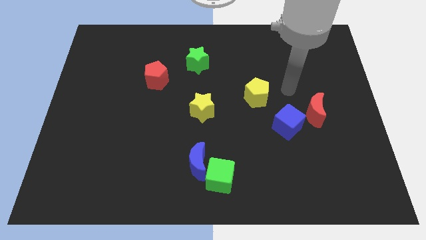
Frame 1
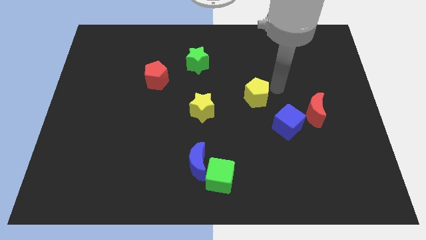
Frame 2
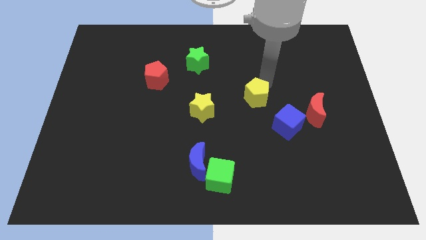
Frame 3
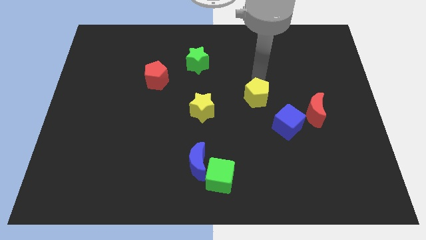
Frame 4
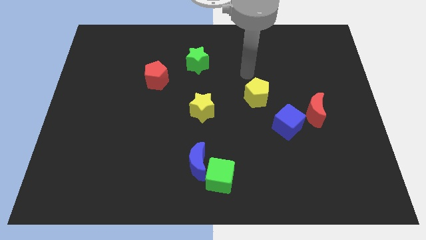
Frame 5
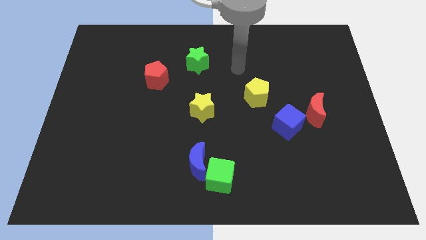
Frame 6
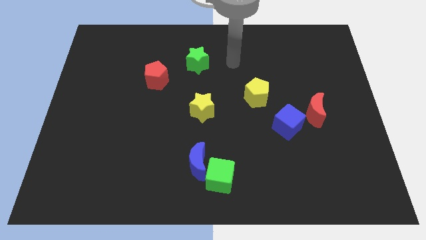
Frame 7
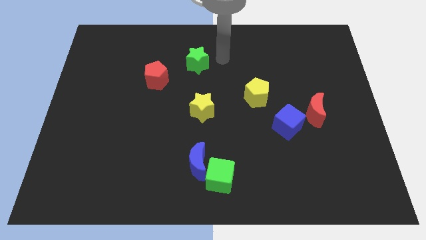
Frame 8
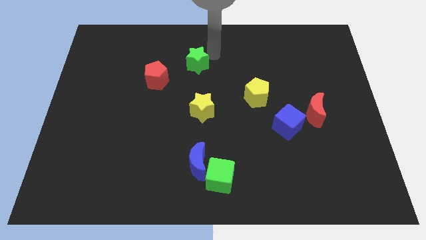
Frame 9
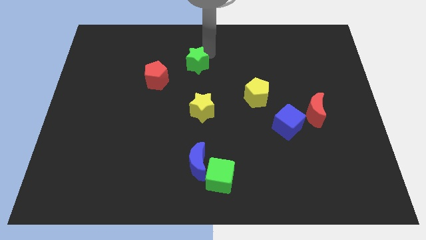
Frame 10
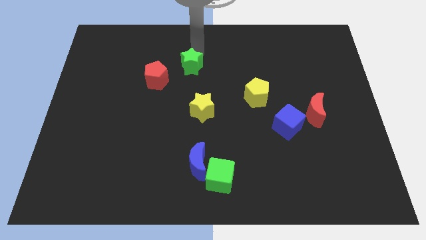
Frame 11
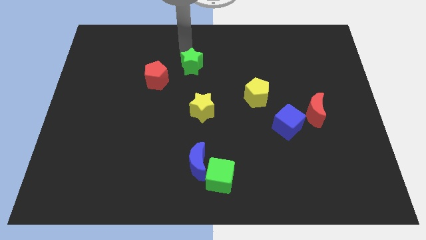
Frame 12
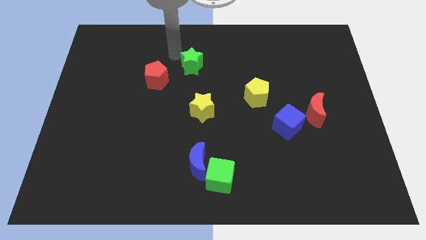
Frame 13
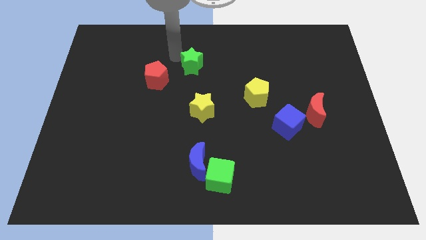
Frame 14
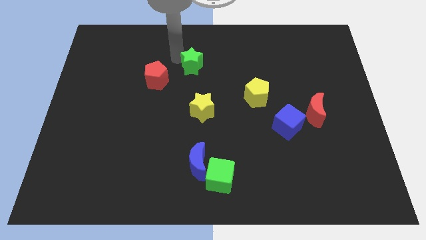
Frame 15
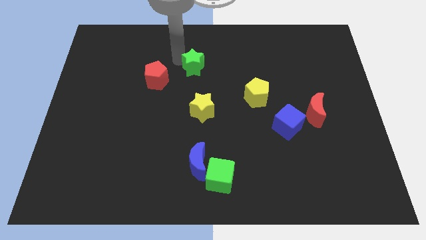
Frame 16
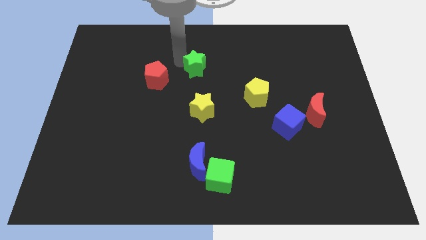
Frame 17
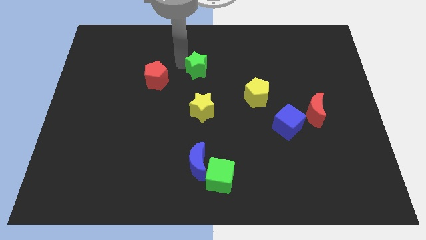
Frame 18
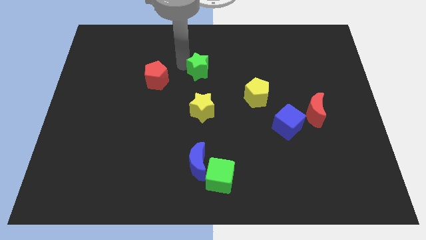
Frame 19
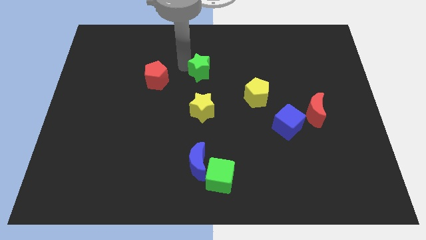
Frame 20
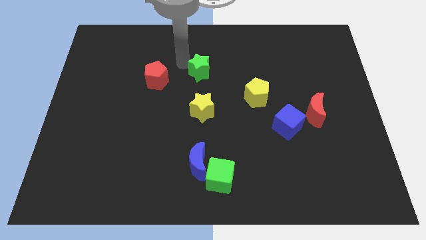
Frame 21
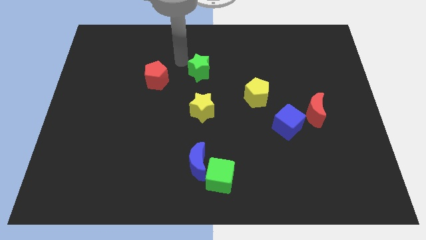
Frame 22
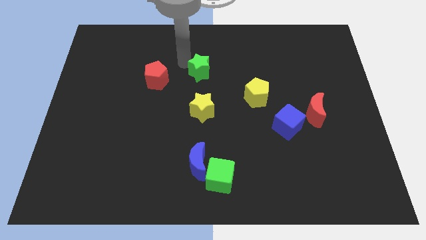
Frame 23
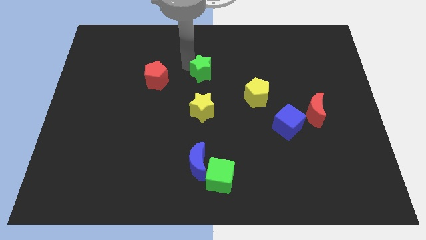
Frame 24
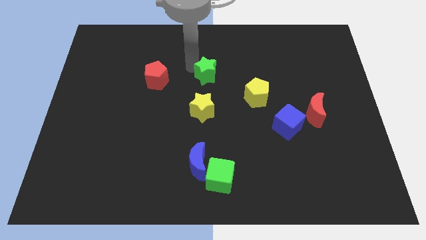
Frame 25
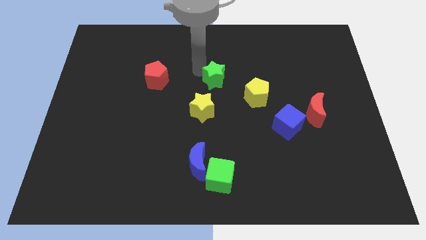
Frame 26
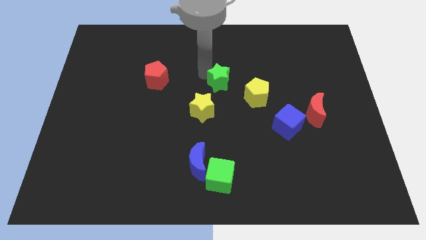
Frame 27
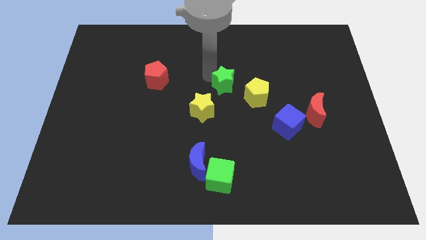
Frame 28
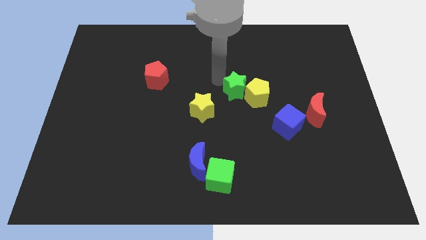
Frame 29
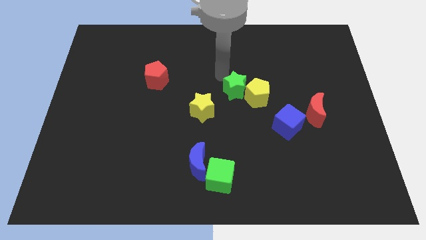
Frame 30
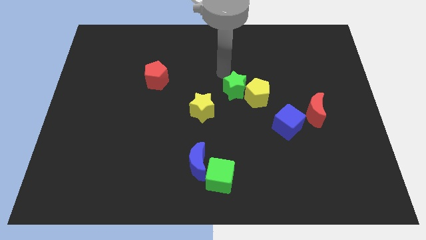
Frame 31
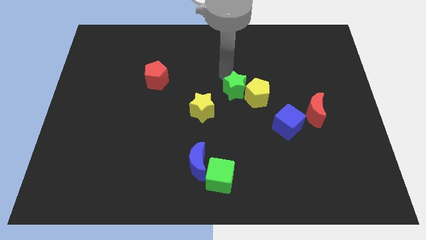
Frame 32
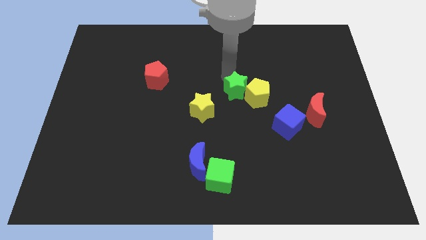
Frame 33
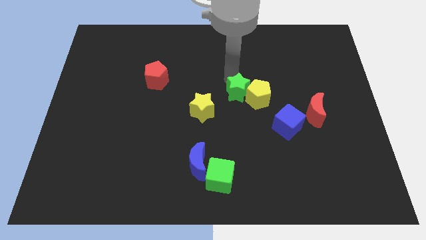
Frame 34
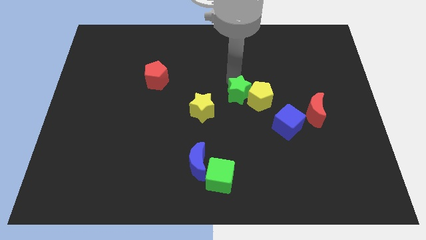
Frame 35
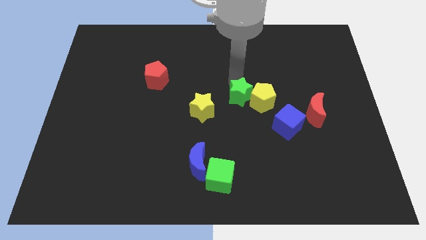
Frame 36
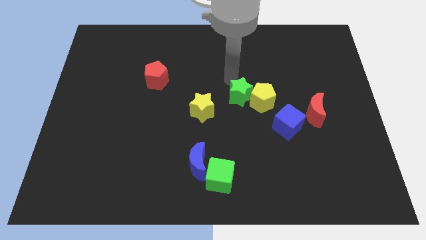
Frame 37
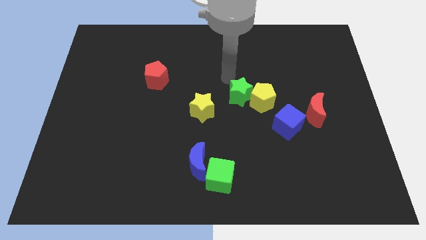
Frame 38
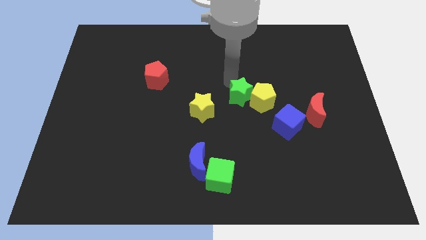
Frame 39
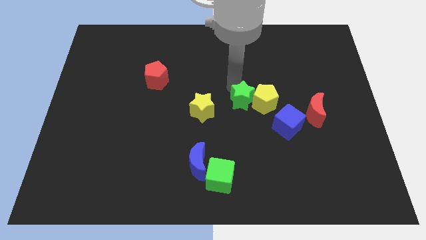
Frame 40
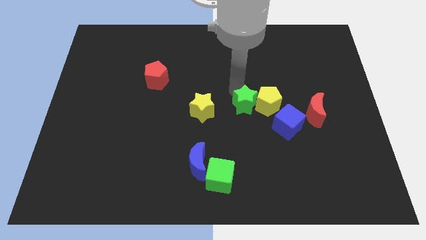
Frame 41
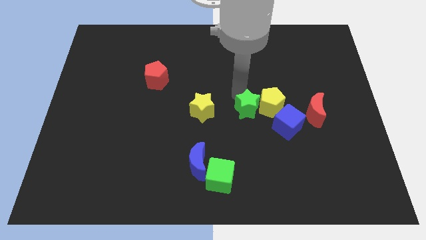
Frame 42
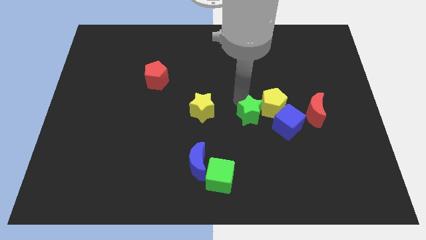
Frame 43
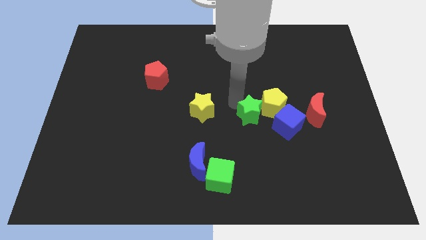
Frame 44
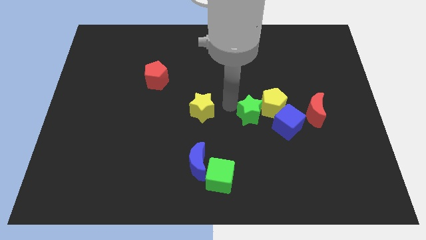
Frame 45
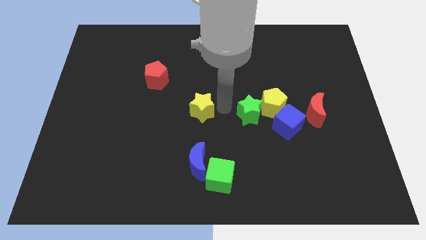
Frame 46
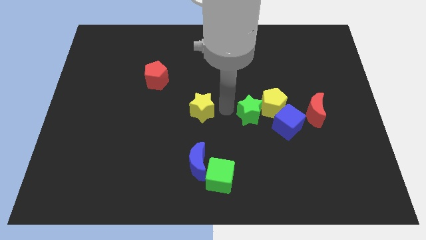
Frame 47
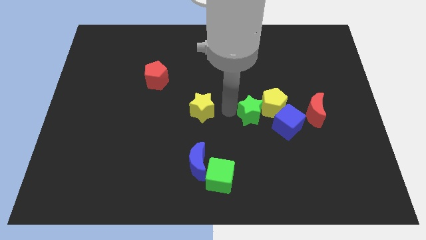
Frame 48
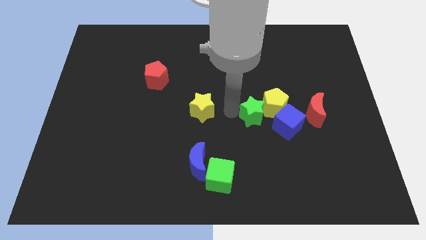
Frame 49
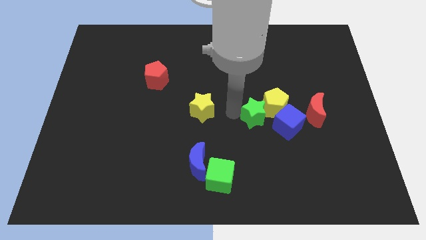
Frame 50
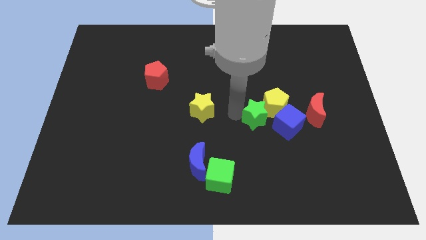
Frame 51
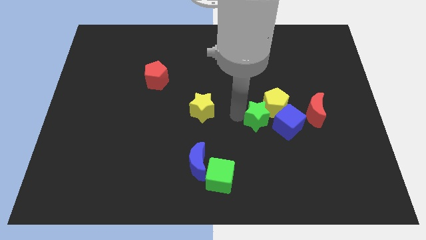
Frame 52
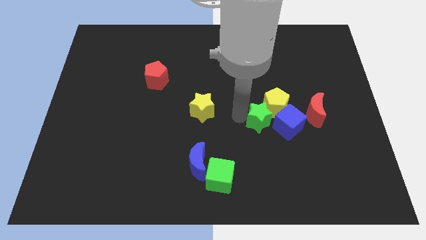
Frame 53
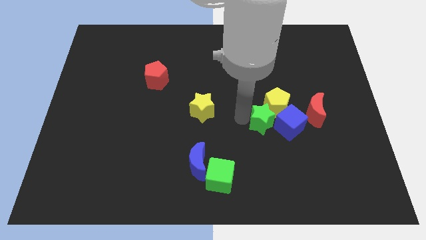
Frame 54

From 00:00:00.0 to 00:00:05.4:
slide the green star close to the blue cube

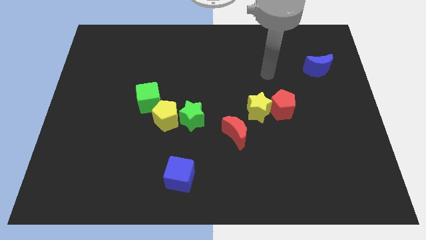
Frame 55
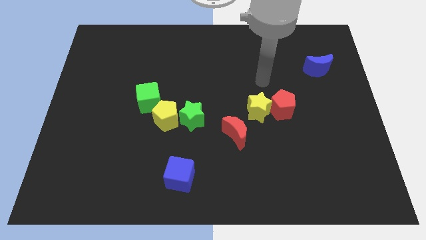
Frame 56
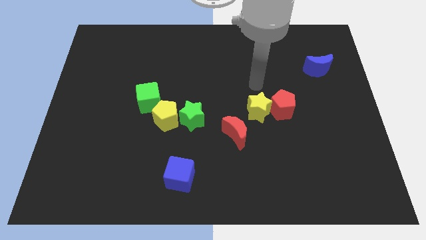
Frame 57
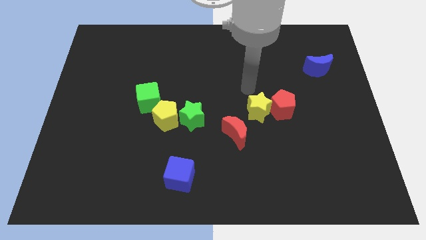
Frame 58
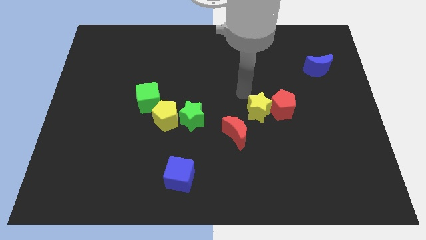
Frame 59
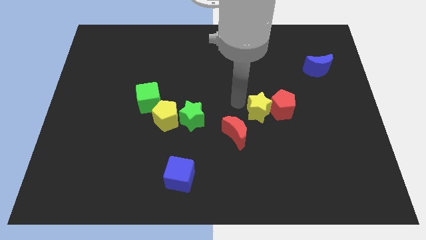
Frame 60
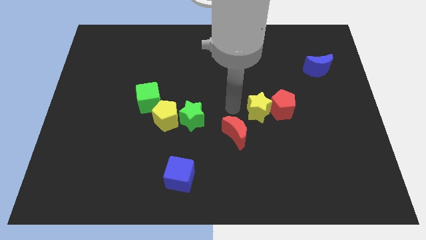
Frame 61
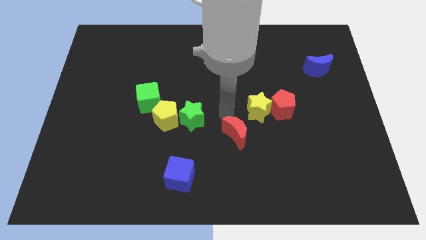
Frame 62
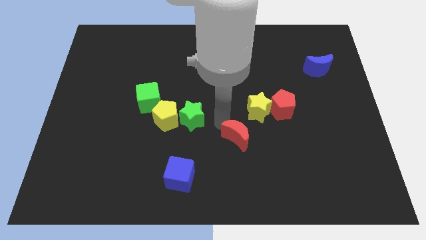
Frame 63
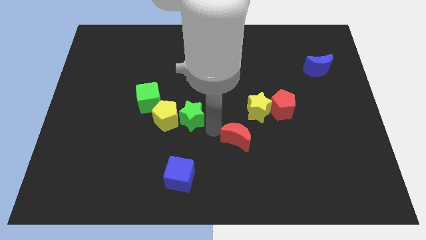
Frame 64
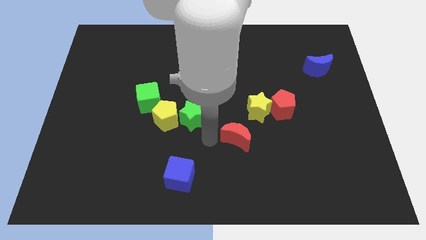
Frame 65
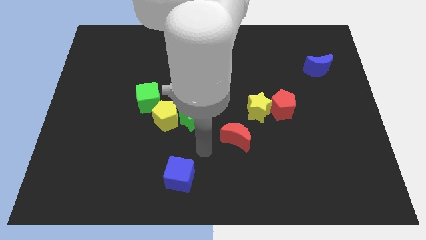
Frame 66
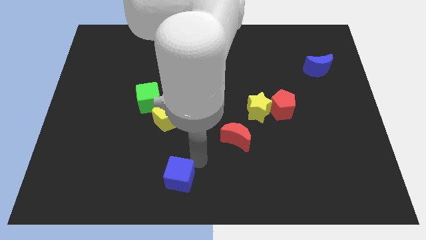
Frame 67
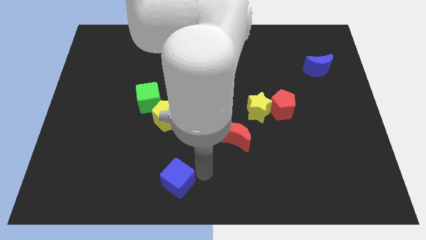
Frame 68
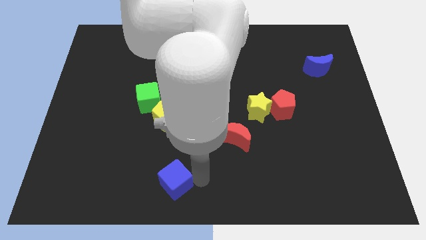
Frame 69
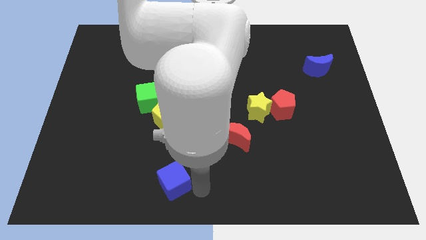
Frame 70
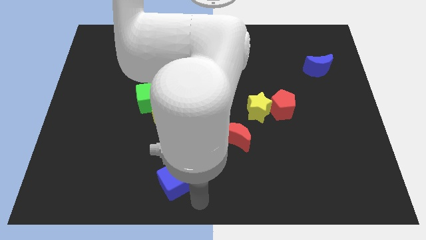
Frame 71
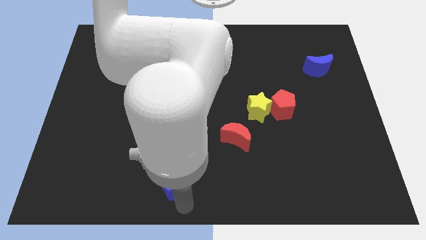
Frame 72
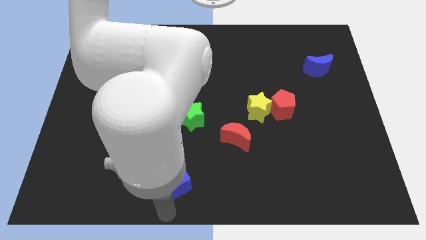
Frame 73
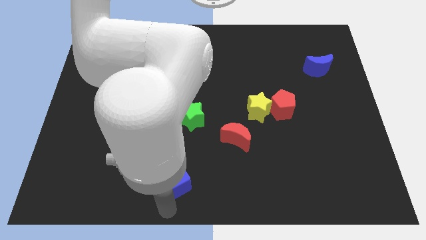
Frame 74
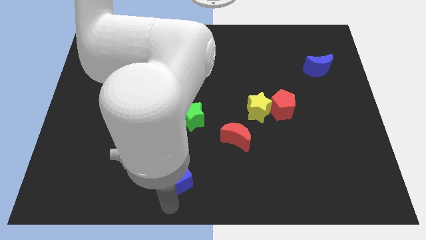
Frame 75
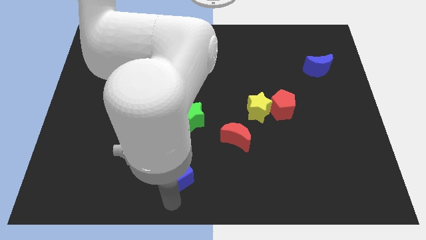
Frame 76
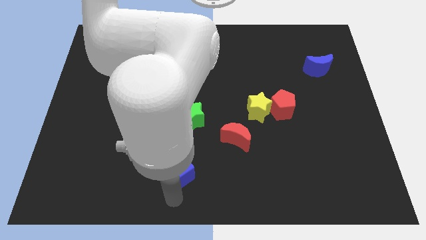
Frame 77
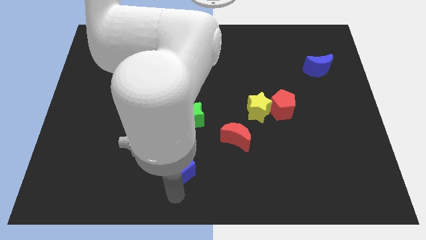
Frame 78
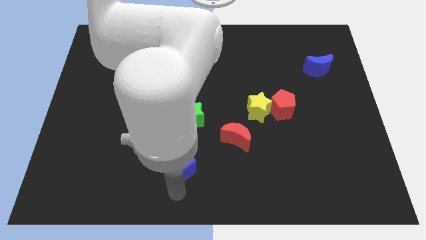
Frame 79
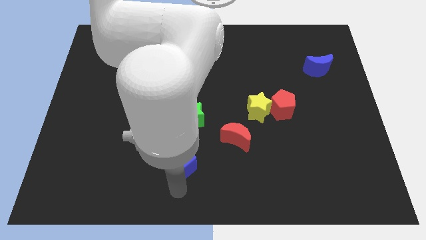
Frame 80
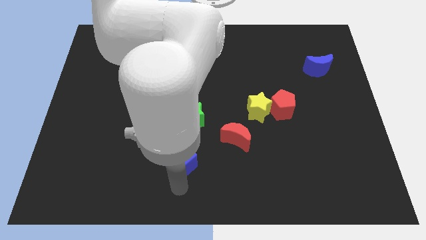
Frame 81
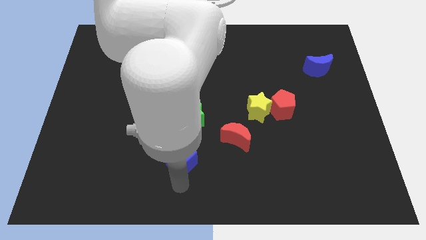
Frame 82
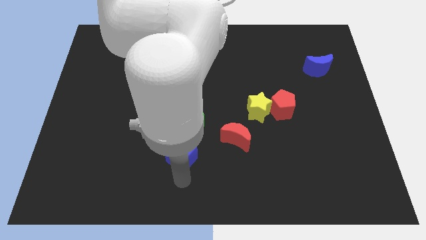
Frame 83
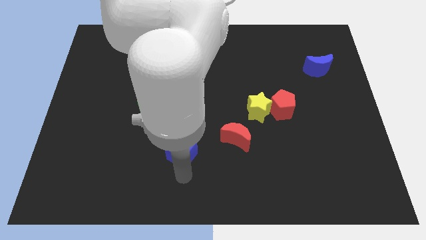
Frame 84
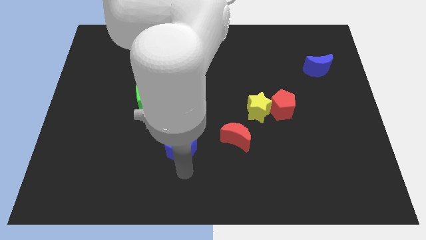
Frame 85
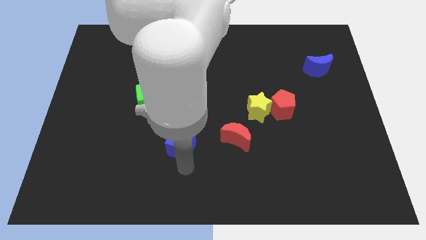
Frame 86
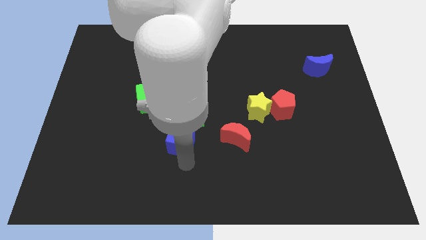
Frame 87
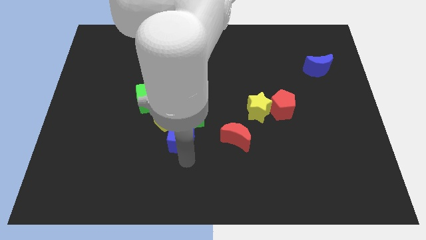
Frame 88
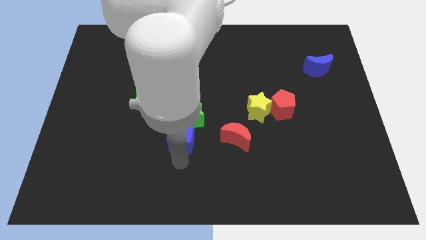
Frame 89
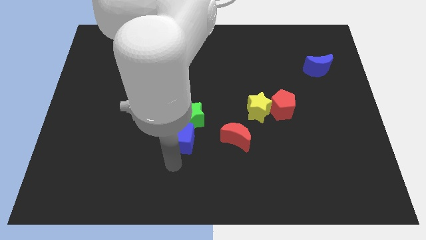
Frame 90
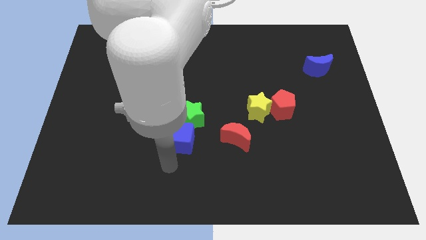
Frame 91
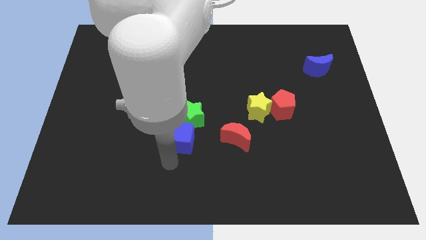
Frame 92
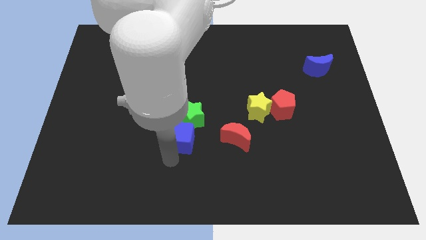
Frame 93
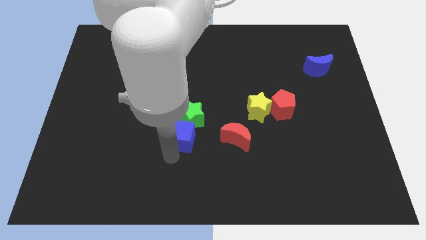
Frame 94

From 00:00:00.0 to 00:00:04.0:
push the blue cube close to the green star
